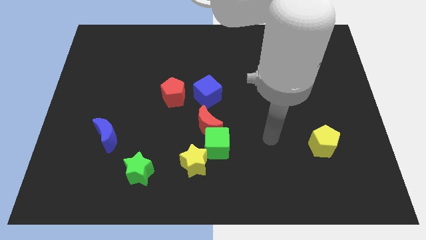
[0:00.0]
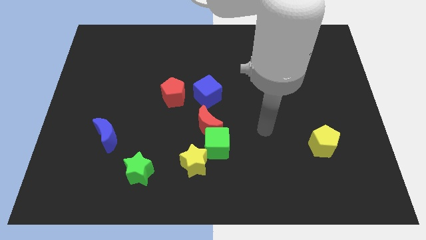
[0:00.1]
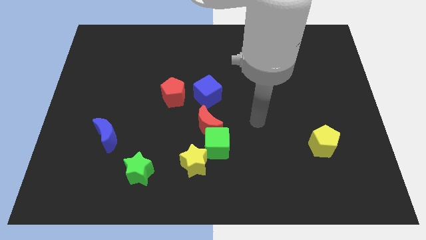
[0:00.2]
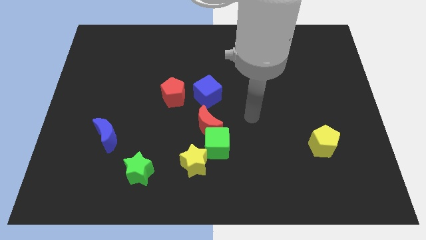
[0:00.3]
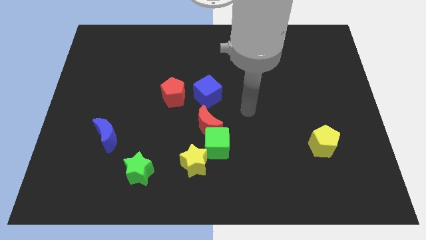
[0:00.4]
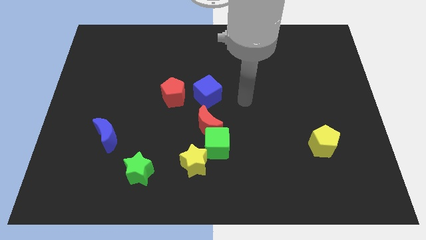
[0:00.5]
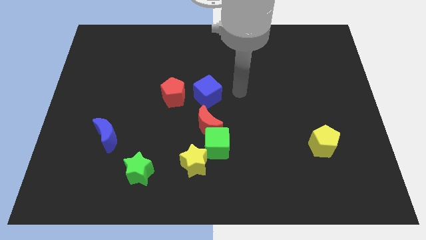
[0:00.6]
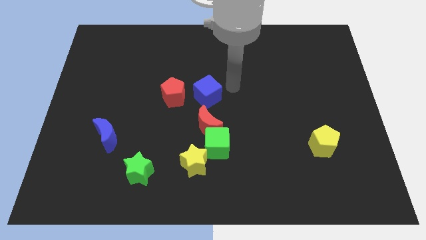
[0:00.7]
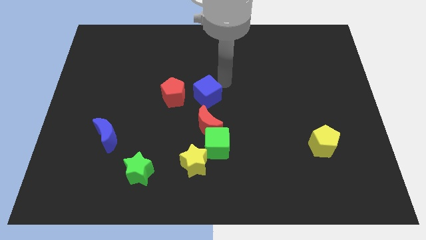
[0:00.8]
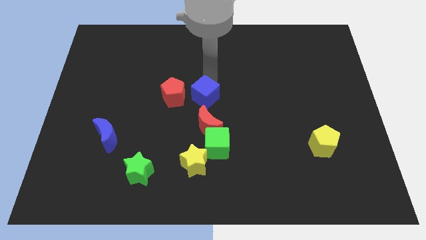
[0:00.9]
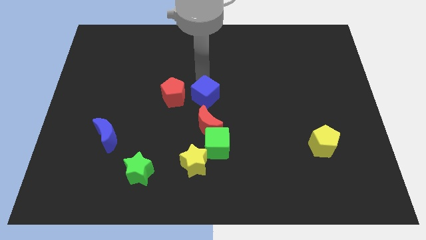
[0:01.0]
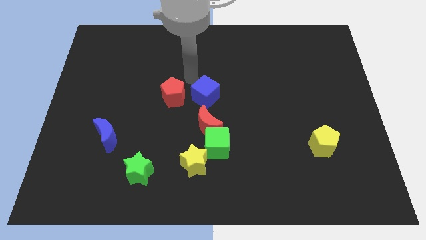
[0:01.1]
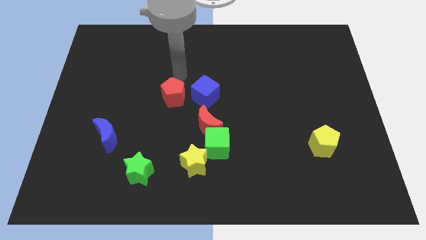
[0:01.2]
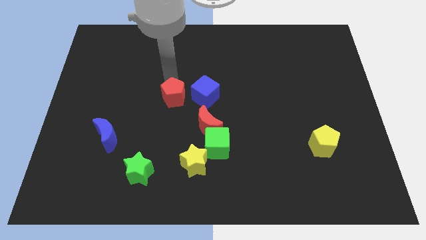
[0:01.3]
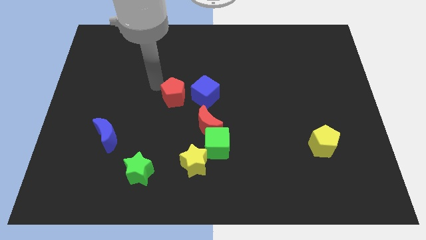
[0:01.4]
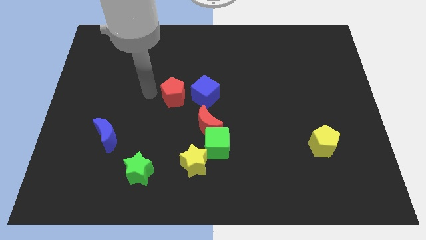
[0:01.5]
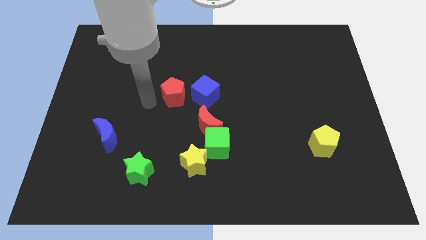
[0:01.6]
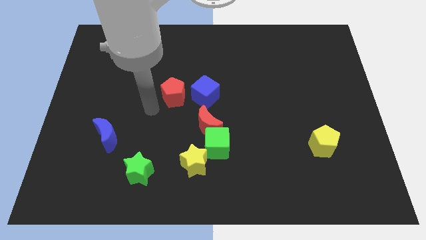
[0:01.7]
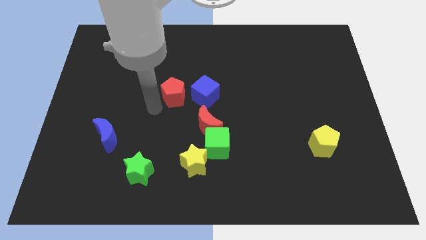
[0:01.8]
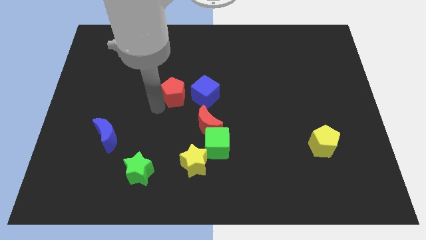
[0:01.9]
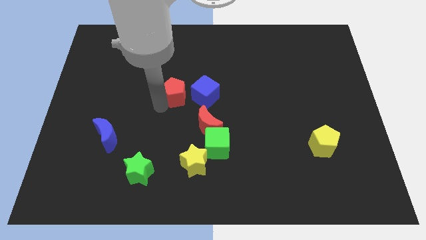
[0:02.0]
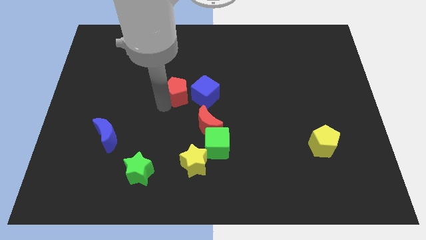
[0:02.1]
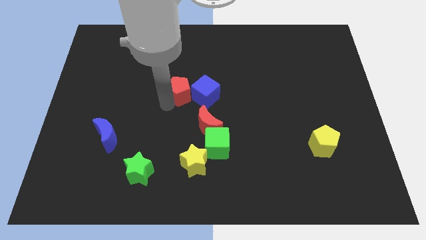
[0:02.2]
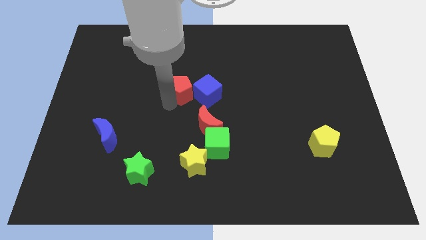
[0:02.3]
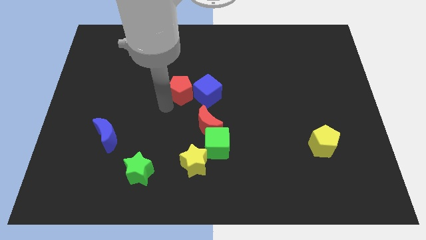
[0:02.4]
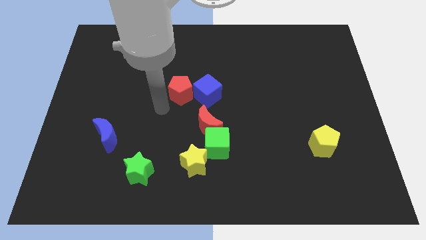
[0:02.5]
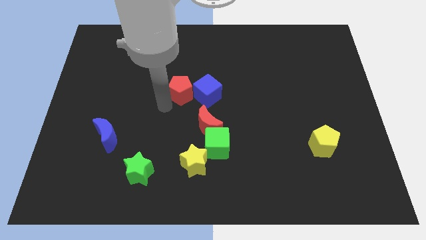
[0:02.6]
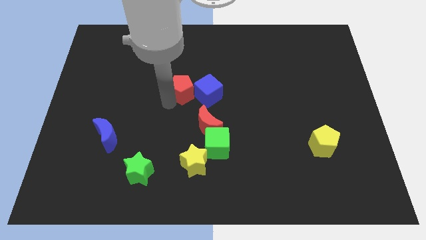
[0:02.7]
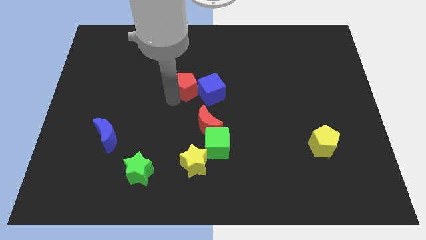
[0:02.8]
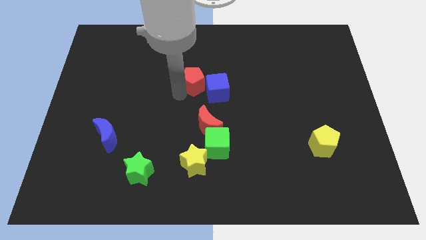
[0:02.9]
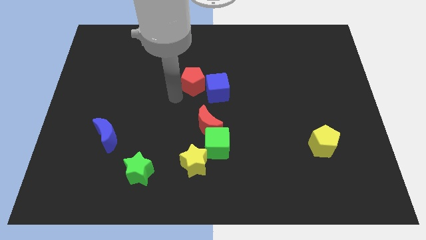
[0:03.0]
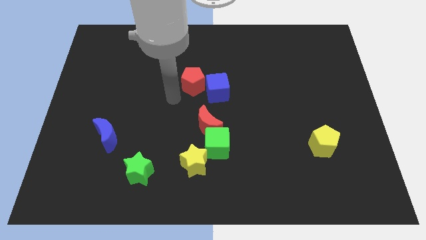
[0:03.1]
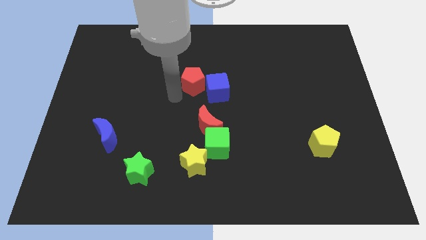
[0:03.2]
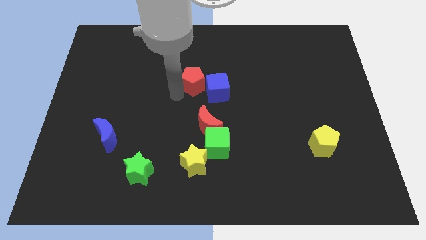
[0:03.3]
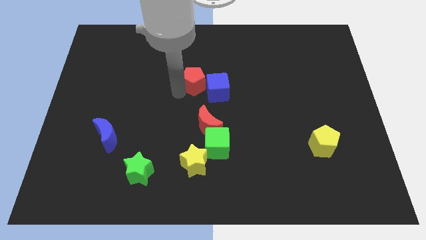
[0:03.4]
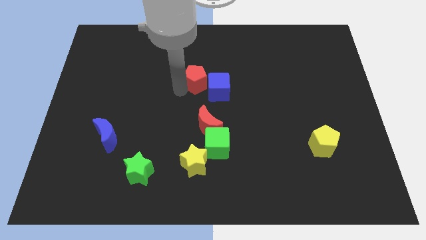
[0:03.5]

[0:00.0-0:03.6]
slide the red pentagon diagonally upwards and right a little

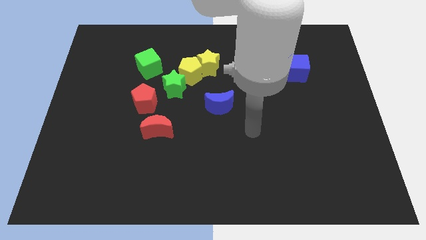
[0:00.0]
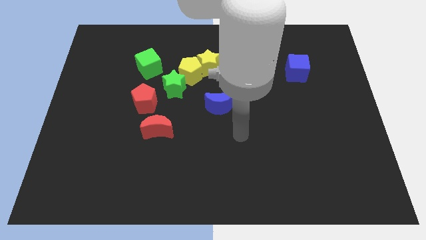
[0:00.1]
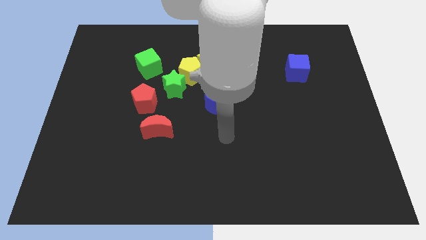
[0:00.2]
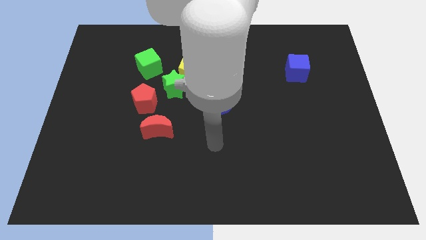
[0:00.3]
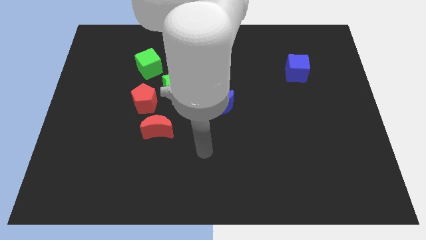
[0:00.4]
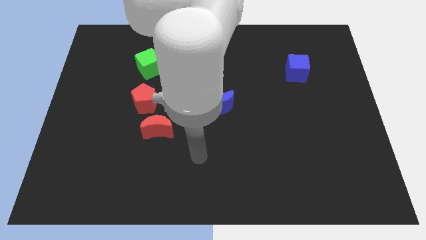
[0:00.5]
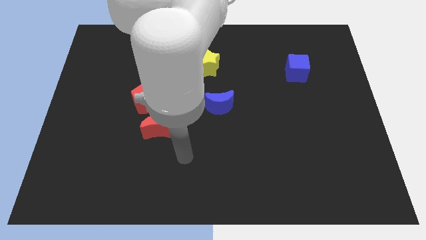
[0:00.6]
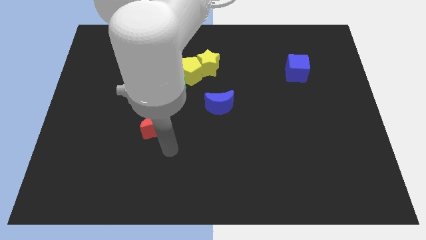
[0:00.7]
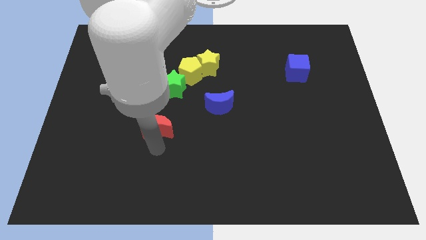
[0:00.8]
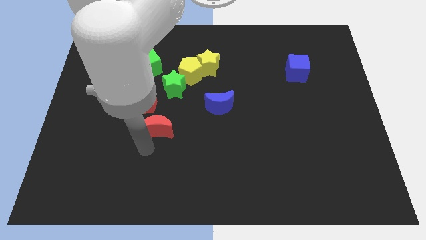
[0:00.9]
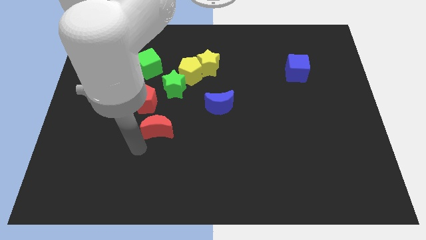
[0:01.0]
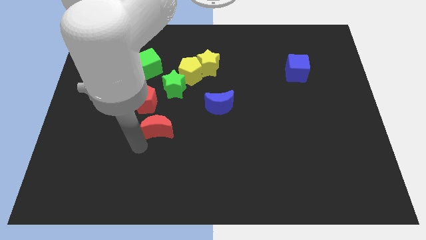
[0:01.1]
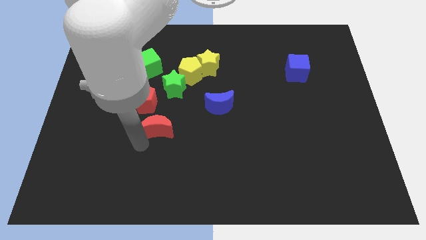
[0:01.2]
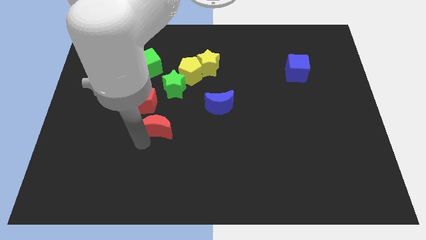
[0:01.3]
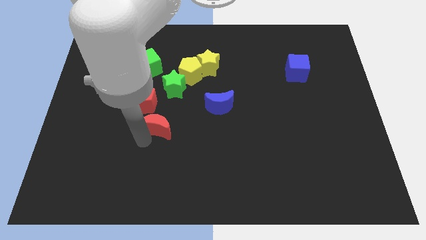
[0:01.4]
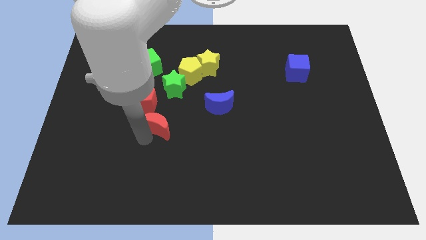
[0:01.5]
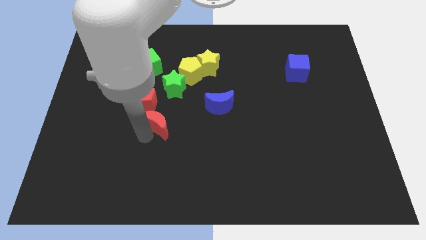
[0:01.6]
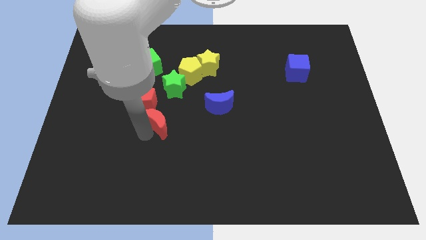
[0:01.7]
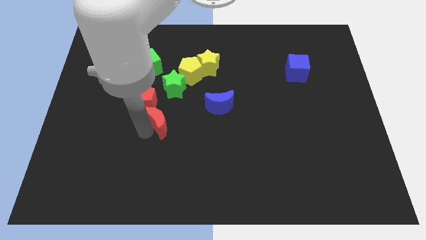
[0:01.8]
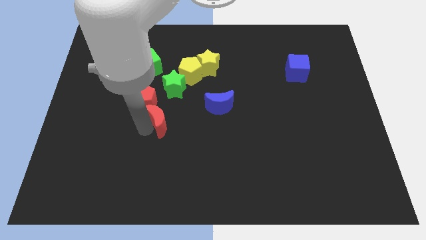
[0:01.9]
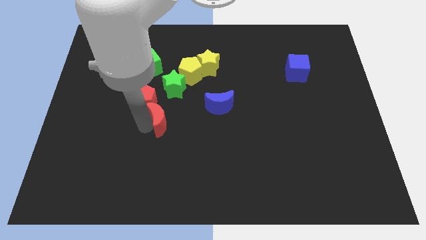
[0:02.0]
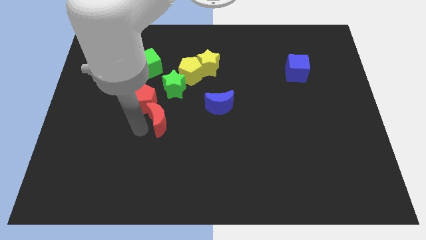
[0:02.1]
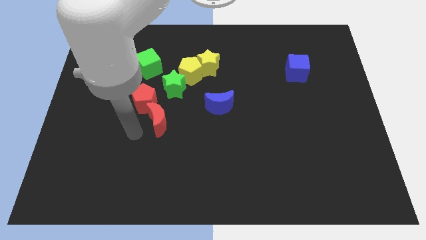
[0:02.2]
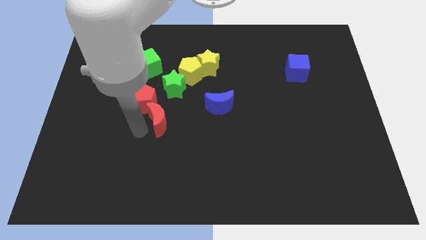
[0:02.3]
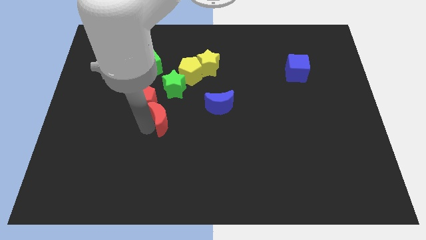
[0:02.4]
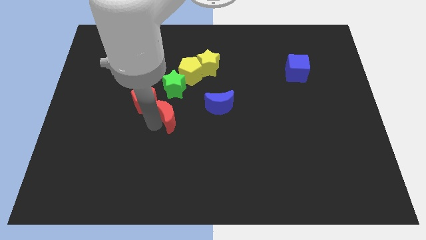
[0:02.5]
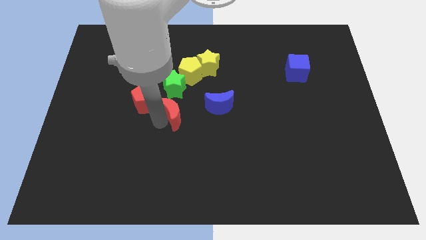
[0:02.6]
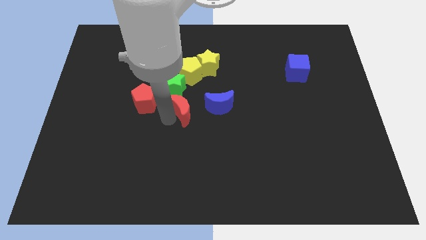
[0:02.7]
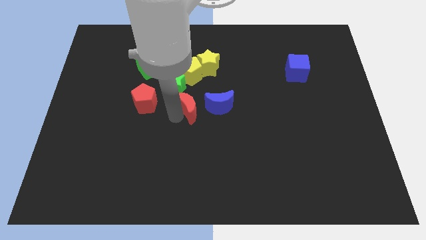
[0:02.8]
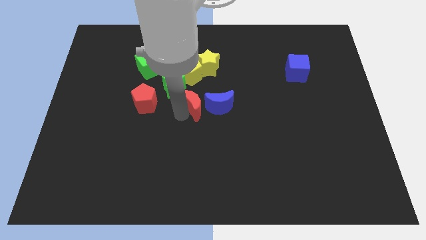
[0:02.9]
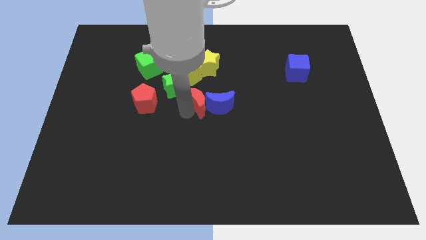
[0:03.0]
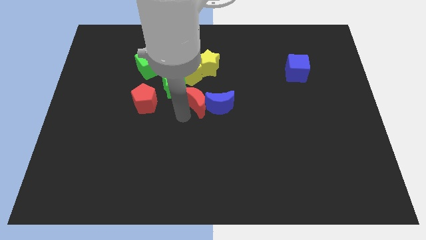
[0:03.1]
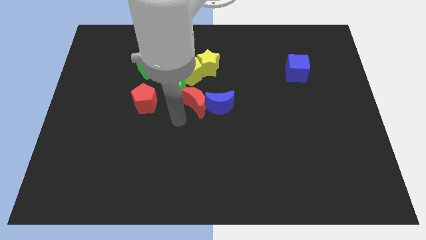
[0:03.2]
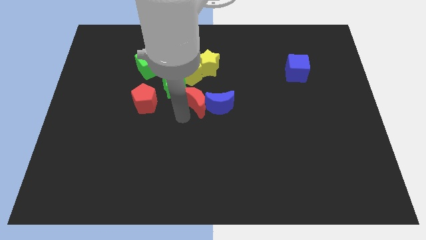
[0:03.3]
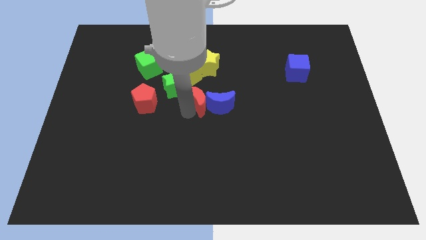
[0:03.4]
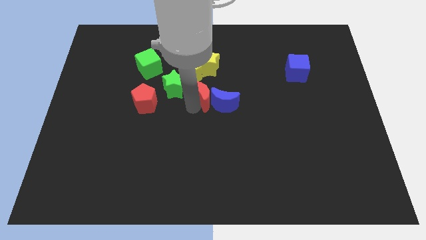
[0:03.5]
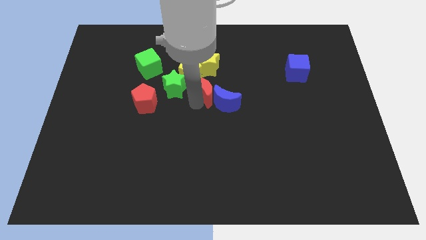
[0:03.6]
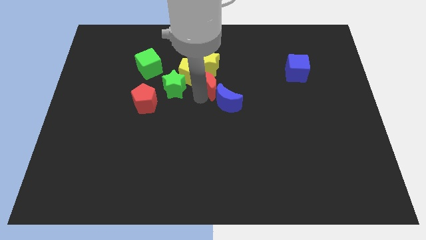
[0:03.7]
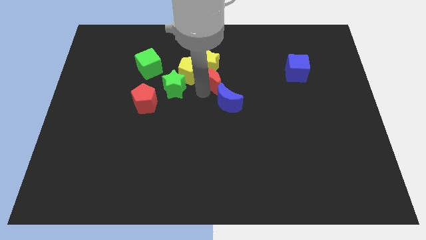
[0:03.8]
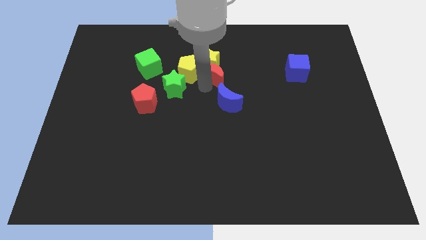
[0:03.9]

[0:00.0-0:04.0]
move the red moon upwards and then to the right

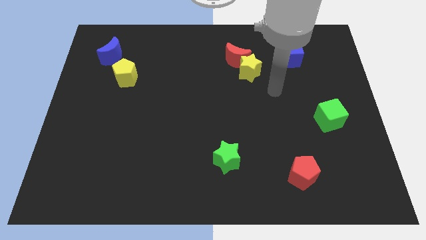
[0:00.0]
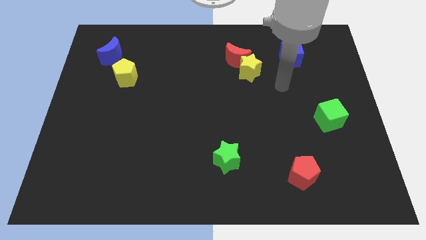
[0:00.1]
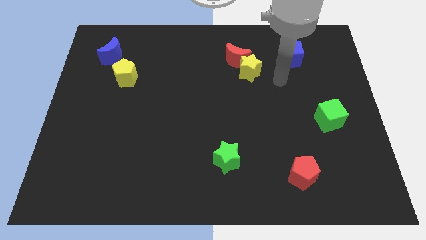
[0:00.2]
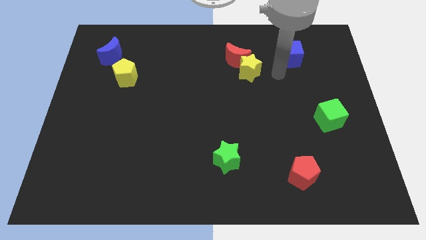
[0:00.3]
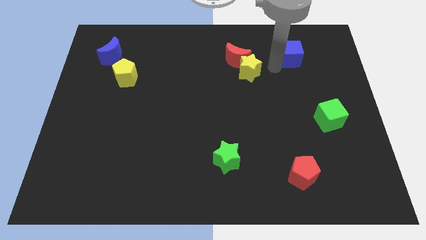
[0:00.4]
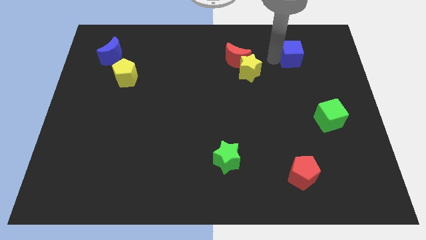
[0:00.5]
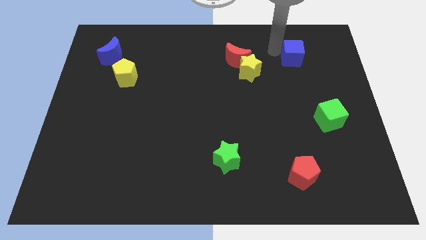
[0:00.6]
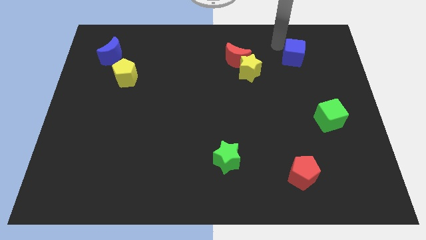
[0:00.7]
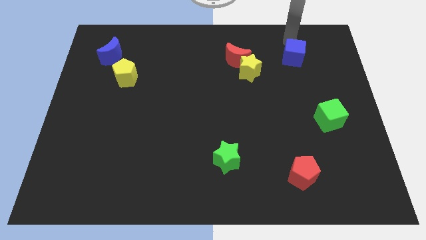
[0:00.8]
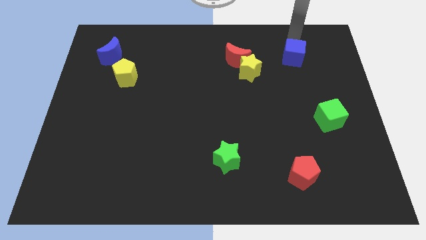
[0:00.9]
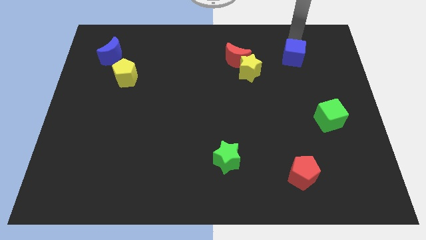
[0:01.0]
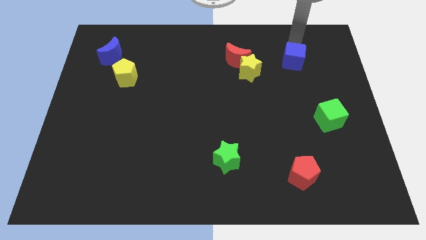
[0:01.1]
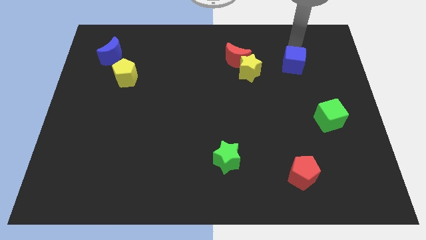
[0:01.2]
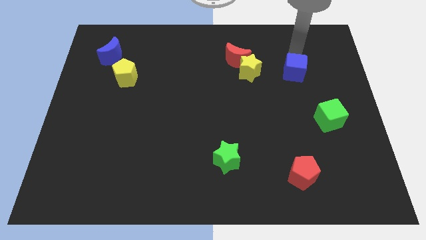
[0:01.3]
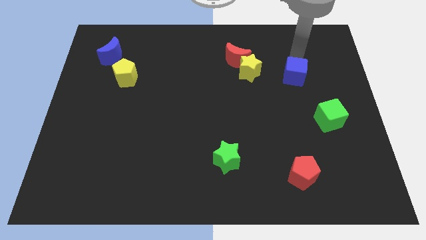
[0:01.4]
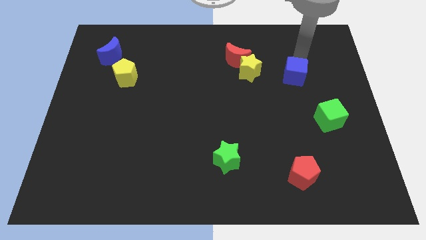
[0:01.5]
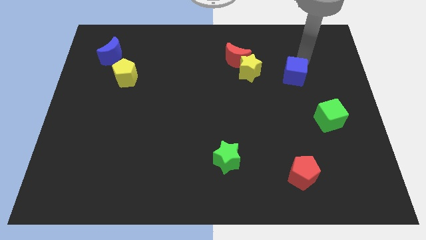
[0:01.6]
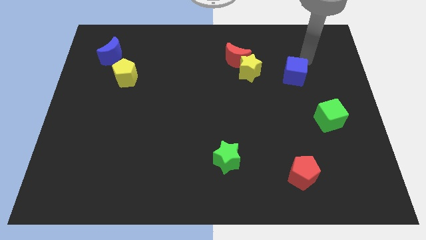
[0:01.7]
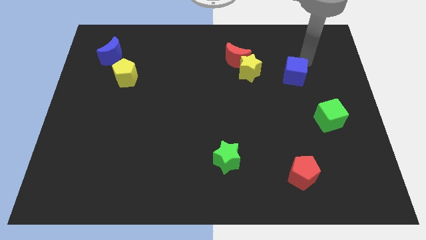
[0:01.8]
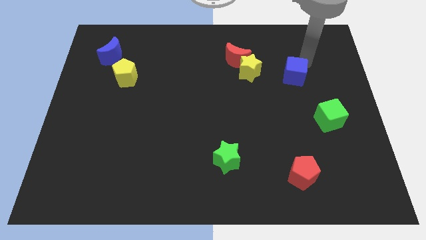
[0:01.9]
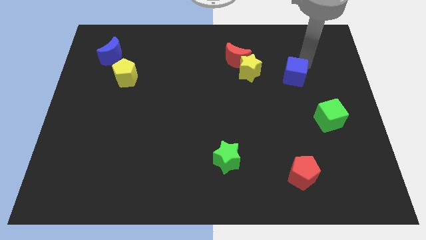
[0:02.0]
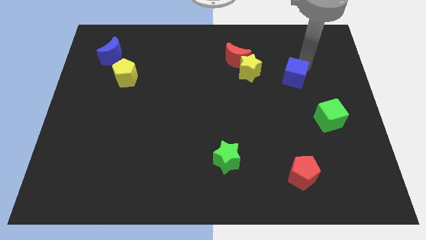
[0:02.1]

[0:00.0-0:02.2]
slightly move the blue cube downwards
